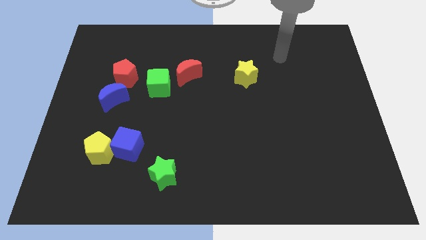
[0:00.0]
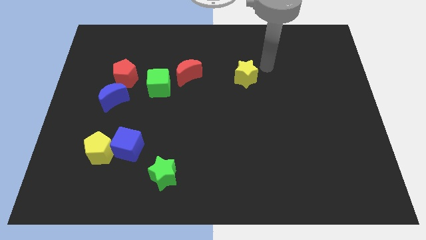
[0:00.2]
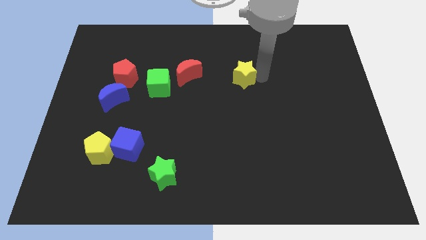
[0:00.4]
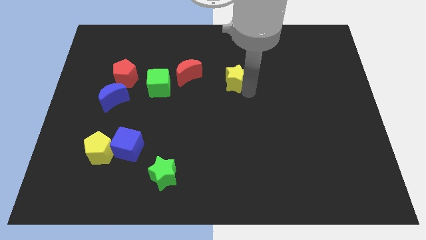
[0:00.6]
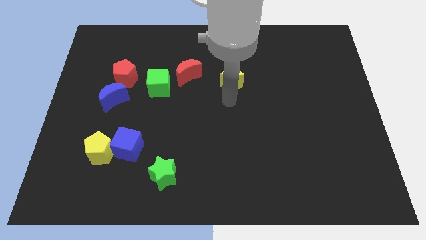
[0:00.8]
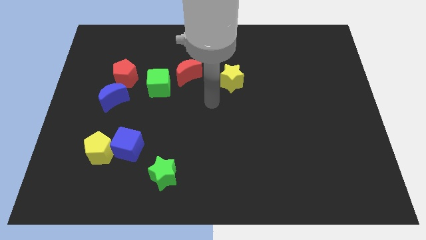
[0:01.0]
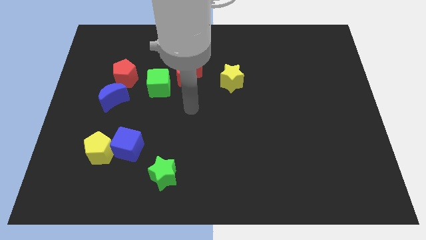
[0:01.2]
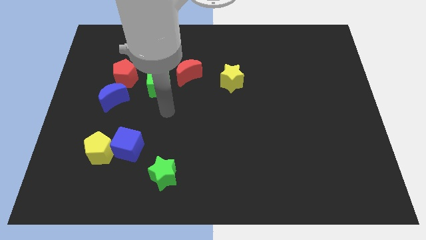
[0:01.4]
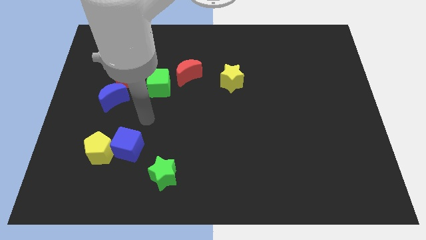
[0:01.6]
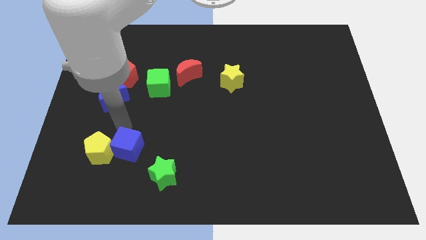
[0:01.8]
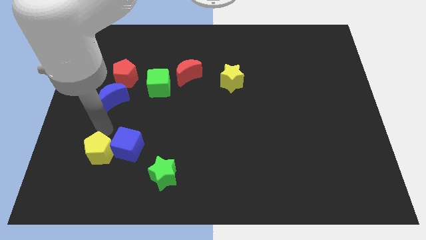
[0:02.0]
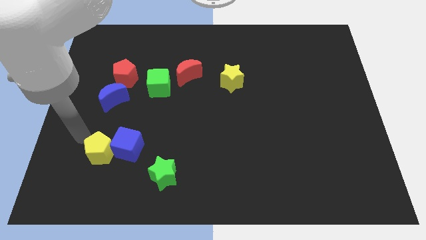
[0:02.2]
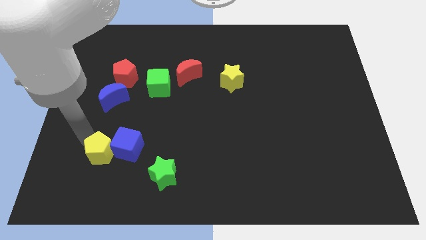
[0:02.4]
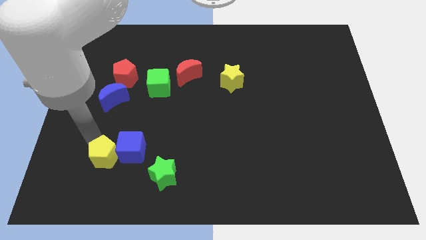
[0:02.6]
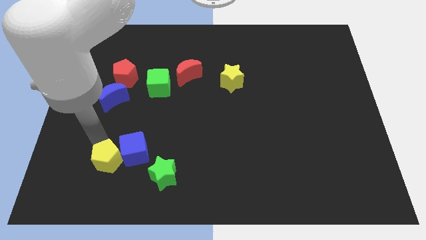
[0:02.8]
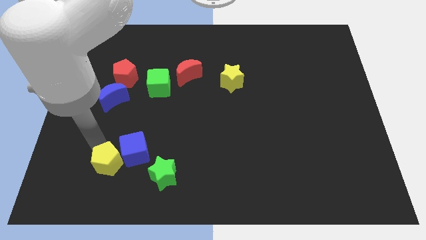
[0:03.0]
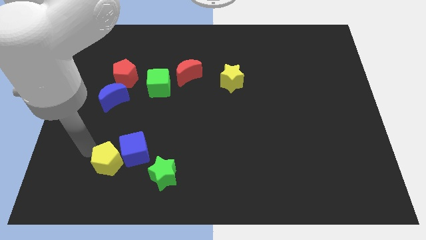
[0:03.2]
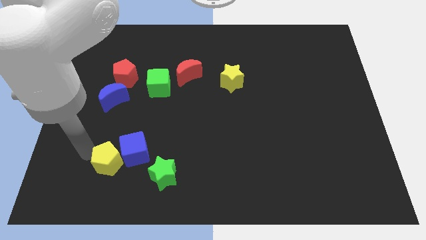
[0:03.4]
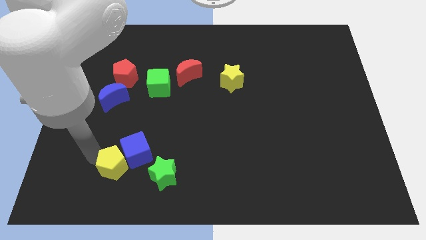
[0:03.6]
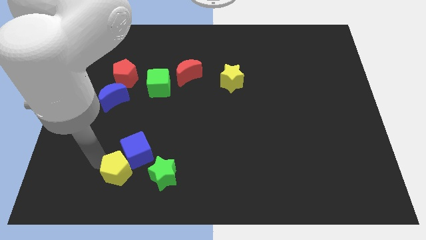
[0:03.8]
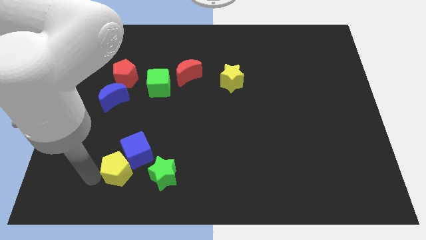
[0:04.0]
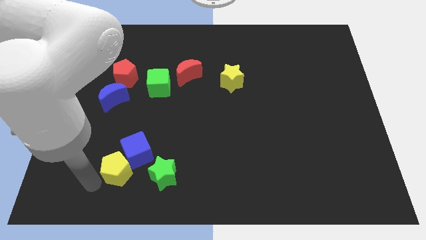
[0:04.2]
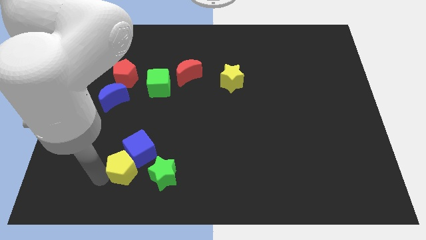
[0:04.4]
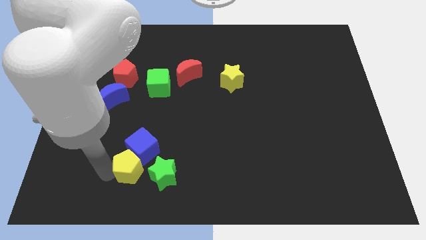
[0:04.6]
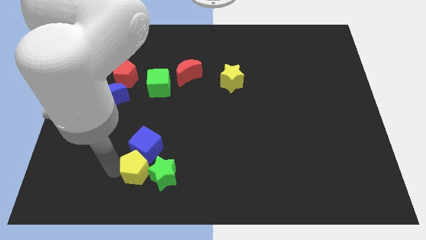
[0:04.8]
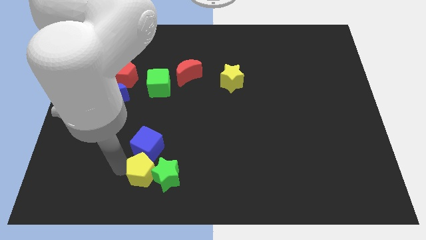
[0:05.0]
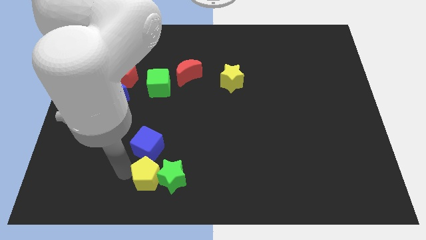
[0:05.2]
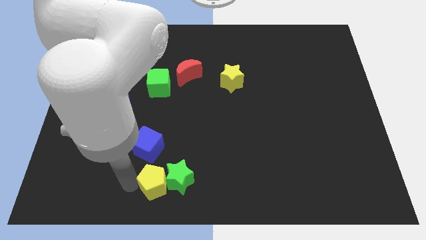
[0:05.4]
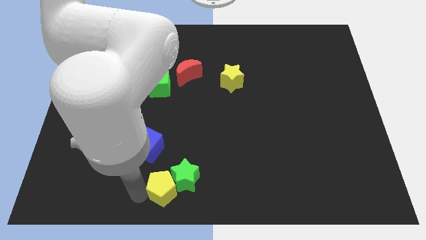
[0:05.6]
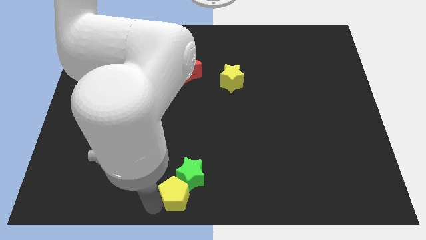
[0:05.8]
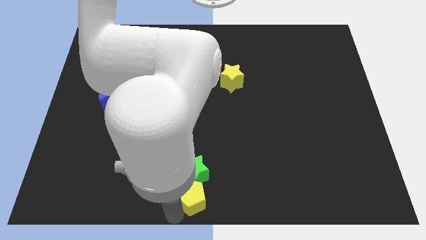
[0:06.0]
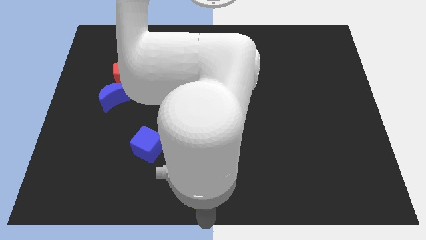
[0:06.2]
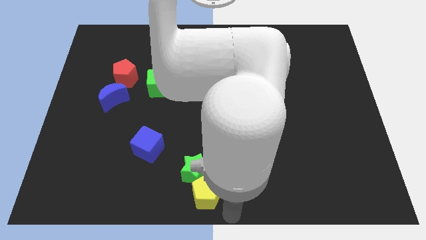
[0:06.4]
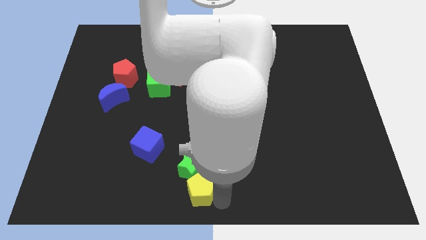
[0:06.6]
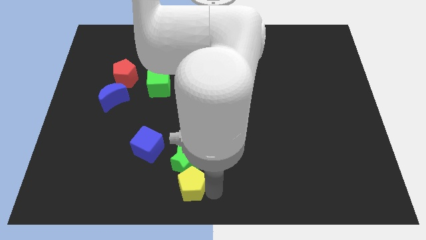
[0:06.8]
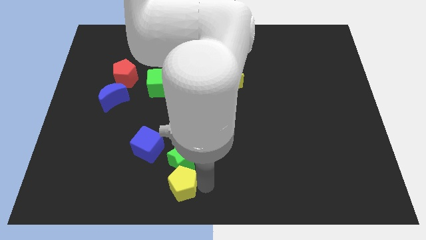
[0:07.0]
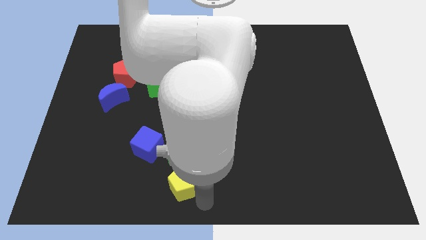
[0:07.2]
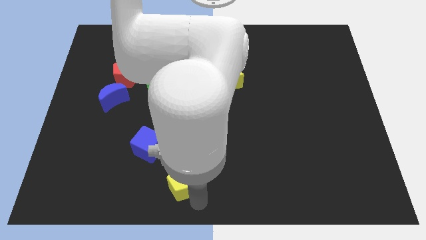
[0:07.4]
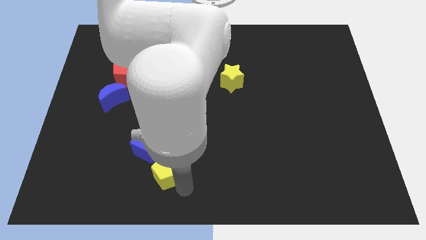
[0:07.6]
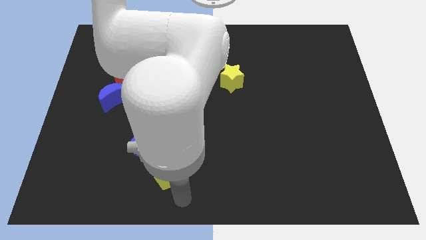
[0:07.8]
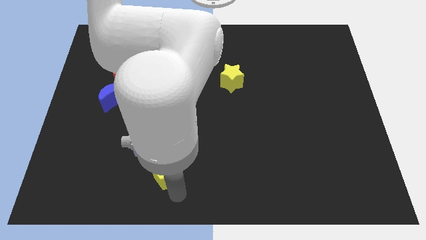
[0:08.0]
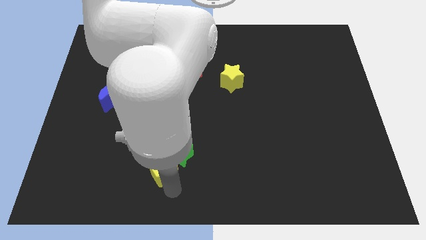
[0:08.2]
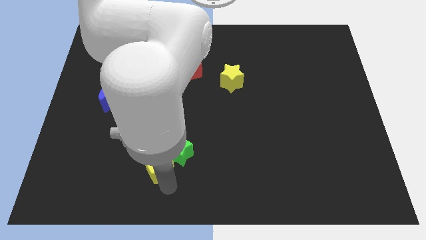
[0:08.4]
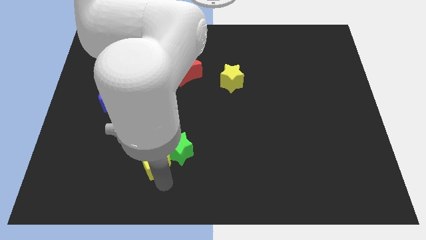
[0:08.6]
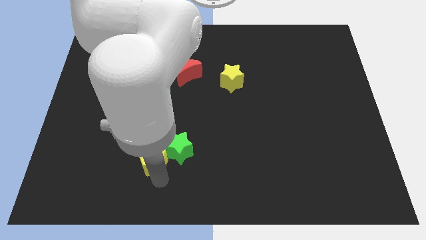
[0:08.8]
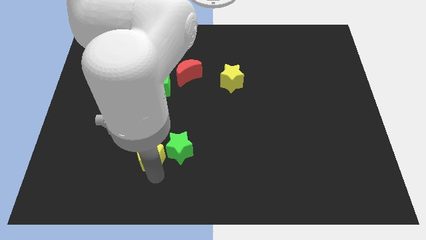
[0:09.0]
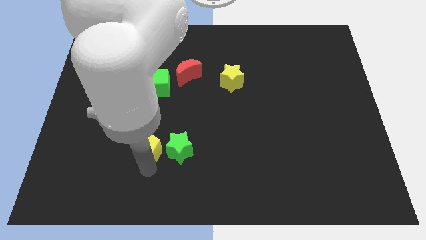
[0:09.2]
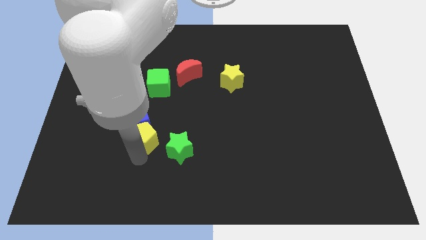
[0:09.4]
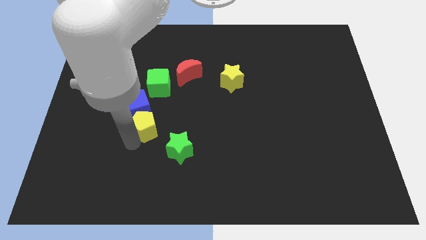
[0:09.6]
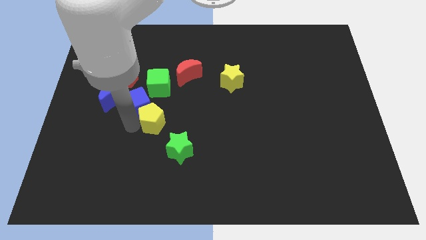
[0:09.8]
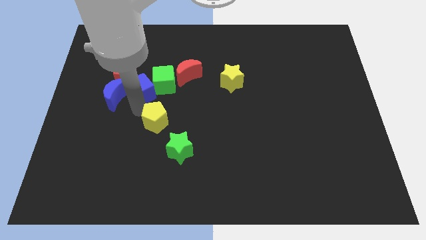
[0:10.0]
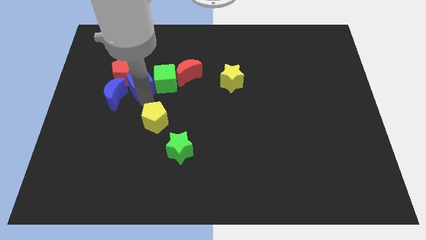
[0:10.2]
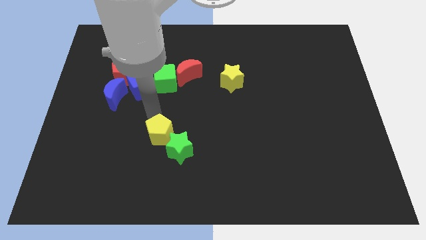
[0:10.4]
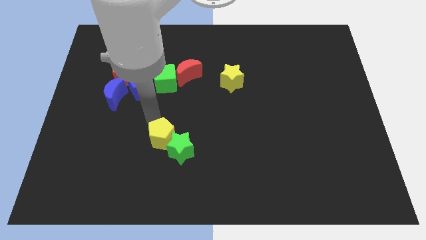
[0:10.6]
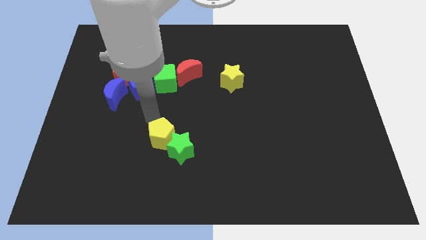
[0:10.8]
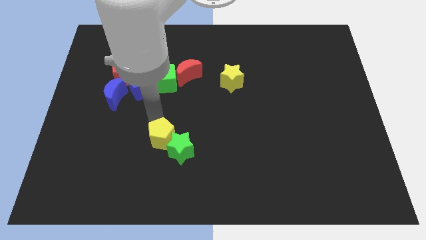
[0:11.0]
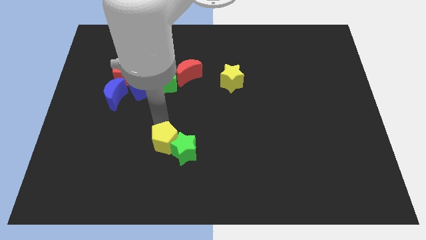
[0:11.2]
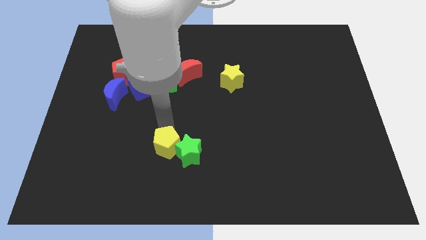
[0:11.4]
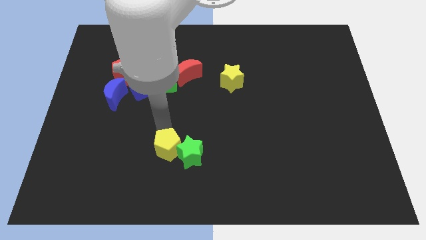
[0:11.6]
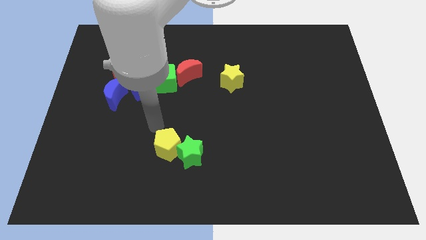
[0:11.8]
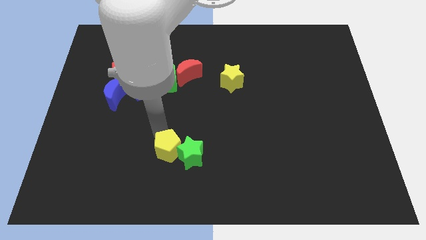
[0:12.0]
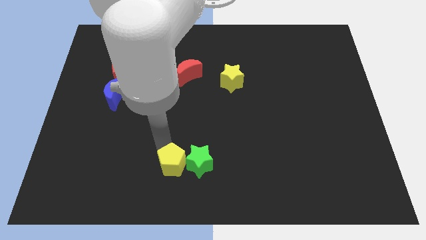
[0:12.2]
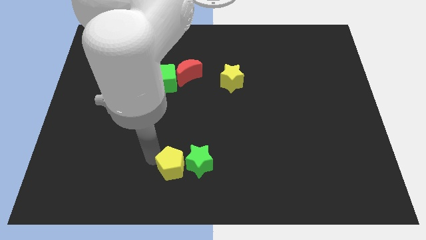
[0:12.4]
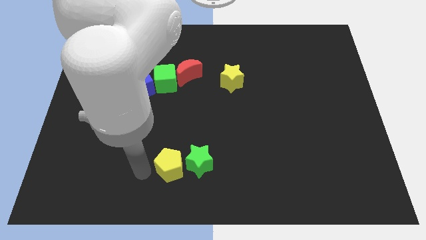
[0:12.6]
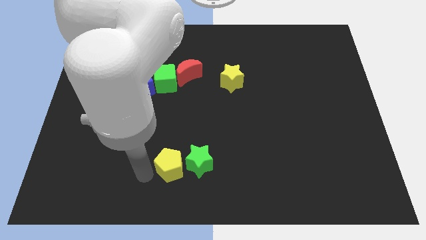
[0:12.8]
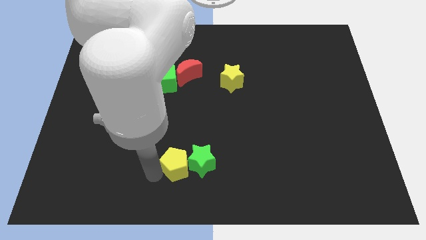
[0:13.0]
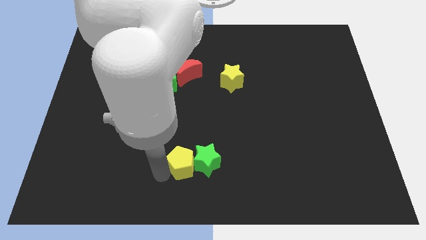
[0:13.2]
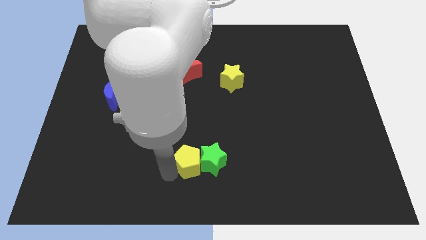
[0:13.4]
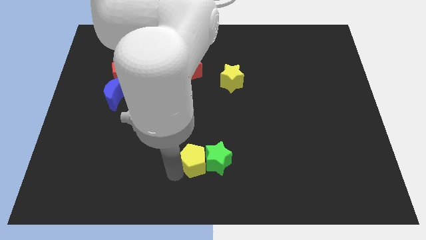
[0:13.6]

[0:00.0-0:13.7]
push the yellow pentagon right

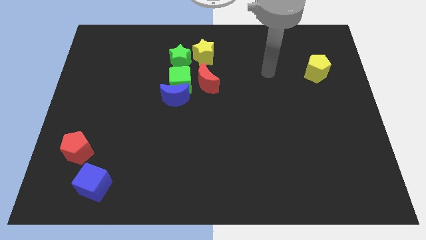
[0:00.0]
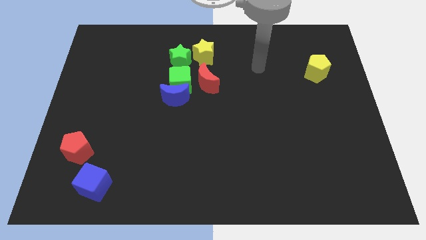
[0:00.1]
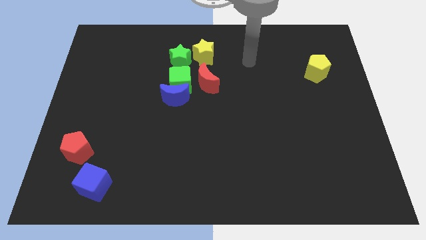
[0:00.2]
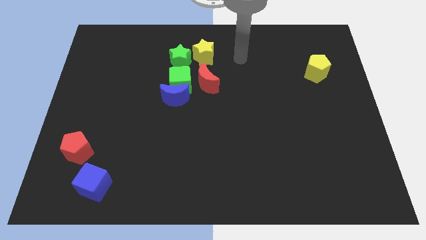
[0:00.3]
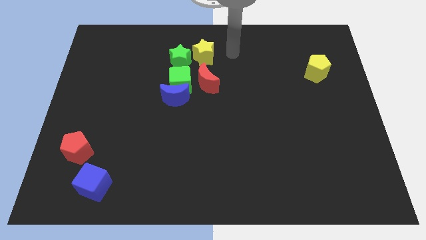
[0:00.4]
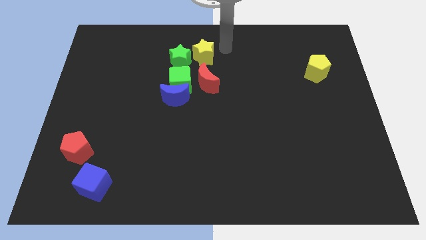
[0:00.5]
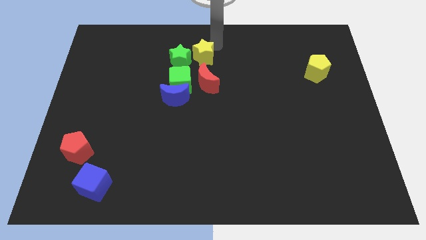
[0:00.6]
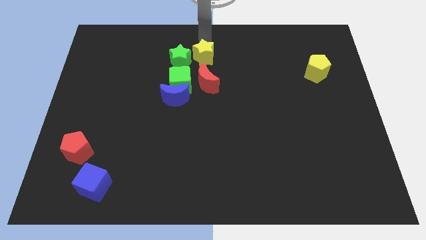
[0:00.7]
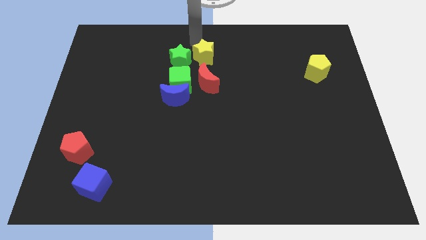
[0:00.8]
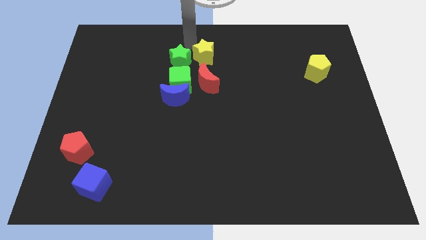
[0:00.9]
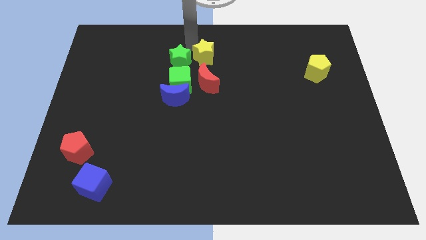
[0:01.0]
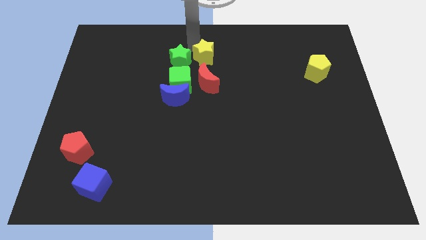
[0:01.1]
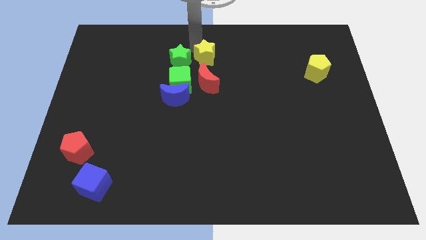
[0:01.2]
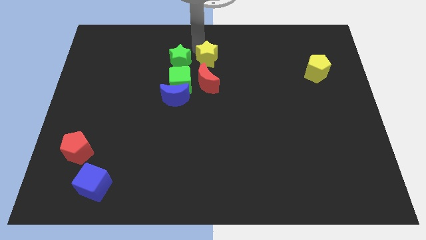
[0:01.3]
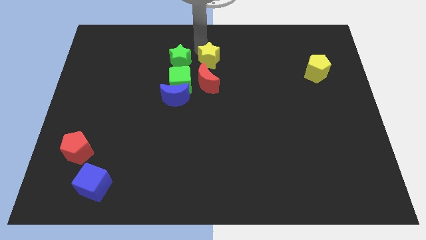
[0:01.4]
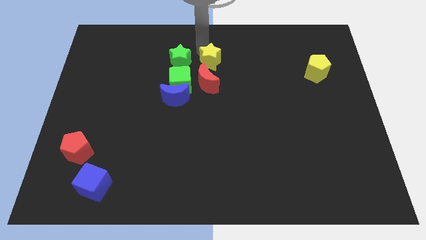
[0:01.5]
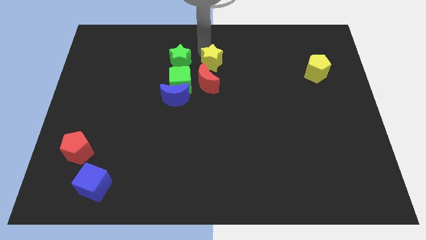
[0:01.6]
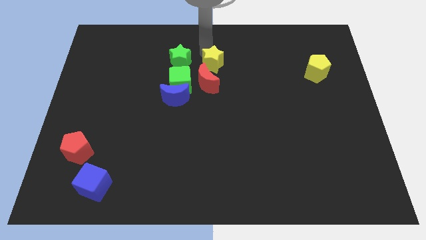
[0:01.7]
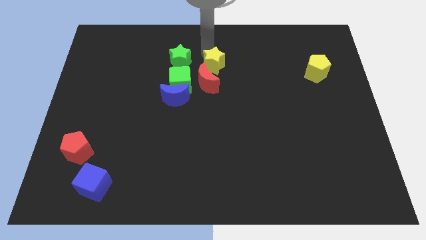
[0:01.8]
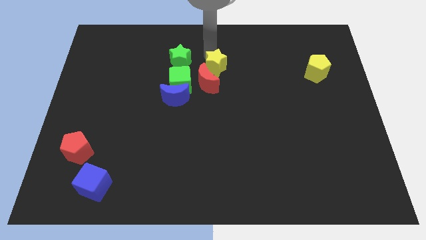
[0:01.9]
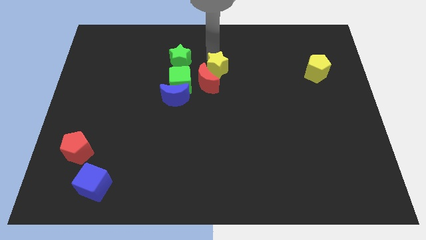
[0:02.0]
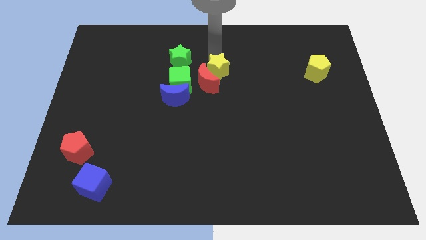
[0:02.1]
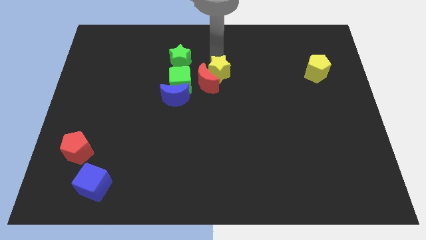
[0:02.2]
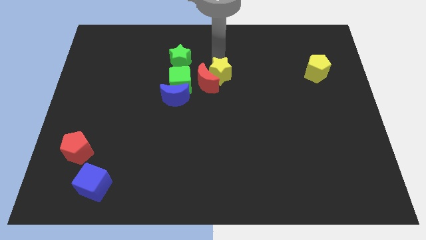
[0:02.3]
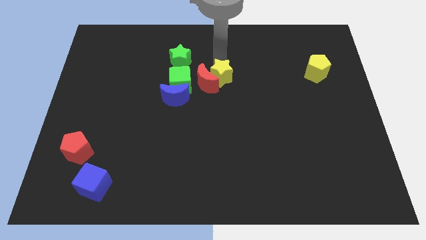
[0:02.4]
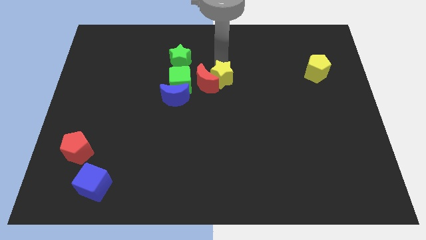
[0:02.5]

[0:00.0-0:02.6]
slightly push the yellow star downwards
